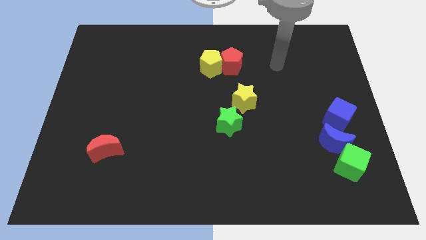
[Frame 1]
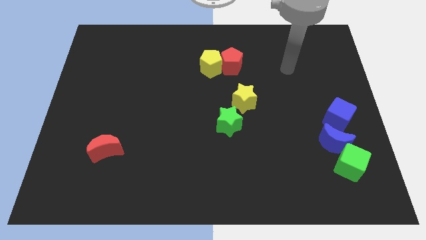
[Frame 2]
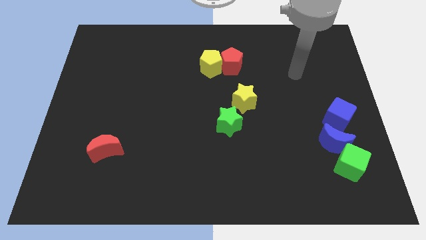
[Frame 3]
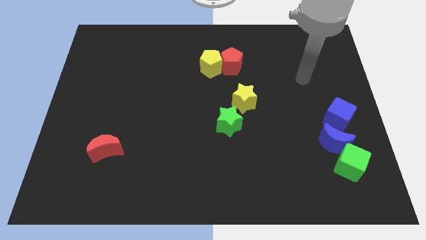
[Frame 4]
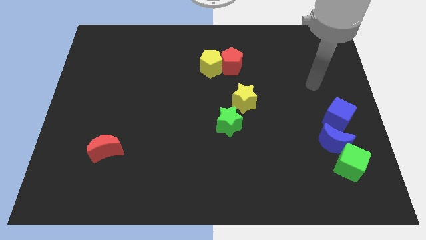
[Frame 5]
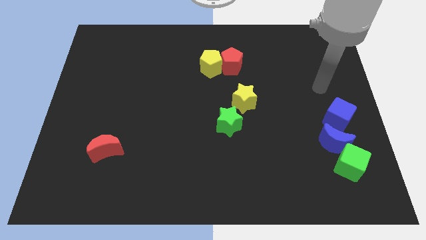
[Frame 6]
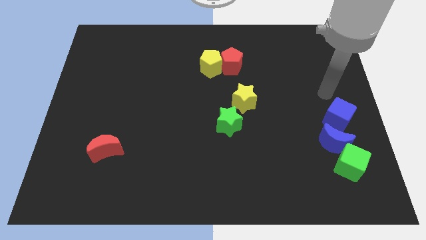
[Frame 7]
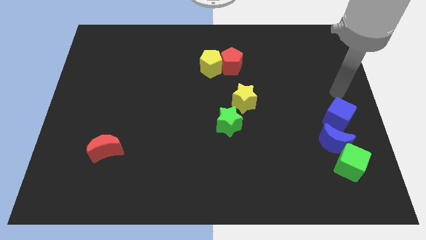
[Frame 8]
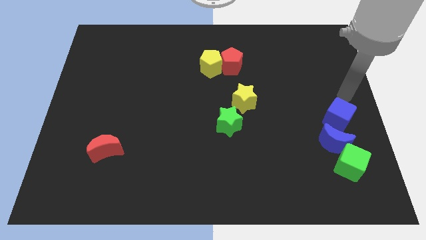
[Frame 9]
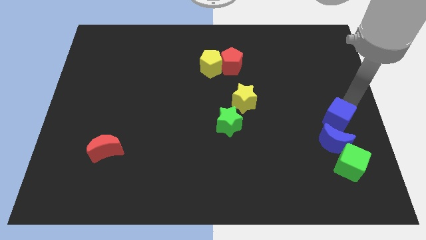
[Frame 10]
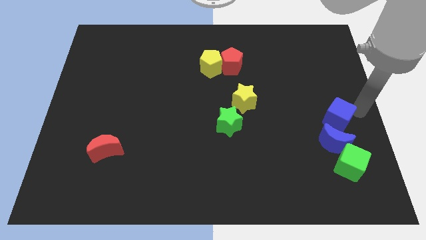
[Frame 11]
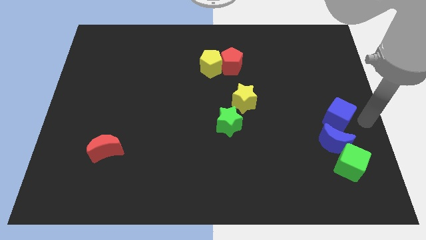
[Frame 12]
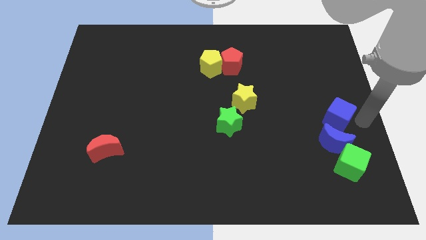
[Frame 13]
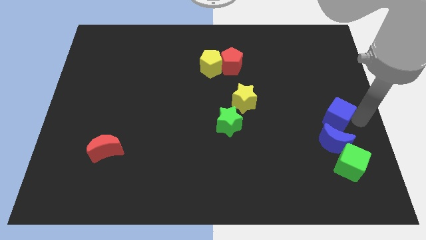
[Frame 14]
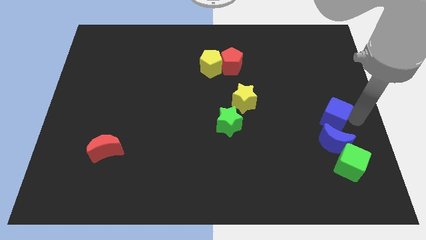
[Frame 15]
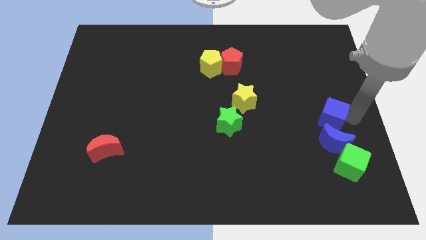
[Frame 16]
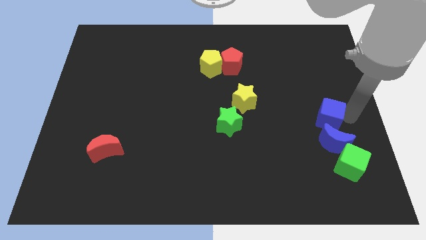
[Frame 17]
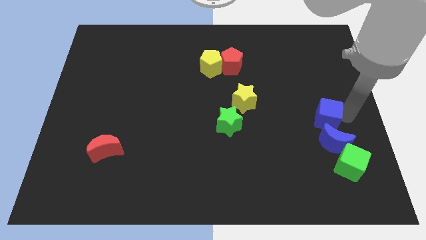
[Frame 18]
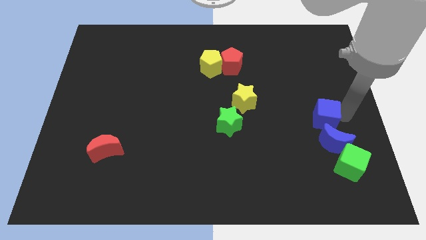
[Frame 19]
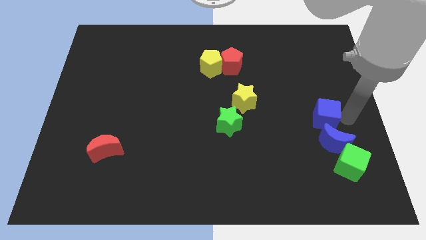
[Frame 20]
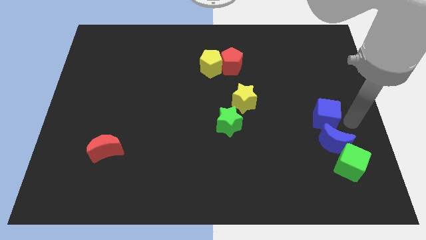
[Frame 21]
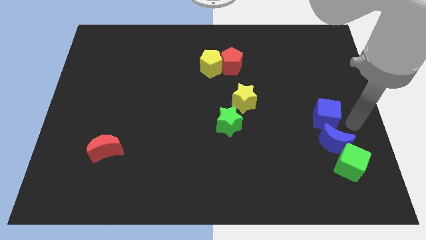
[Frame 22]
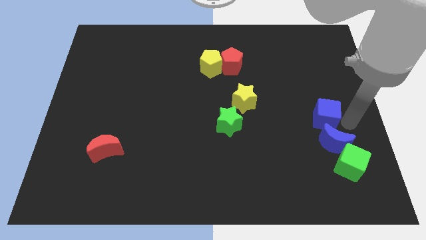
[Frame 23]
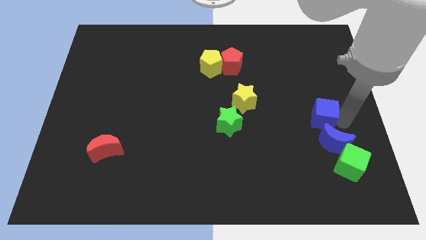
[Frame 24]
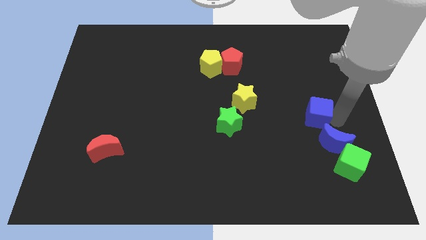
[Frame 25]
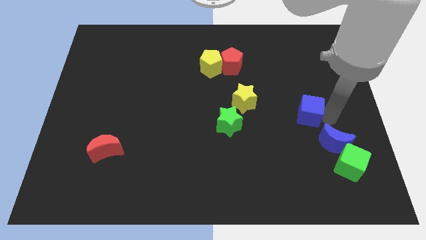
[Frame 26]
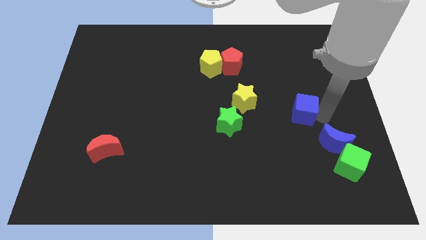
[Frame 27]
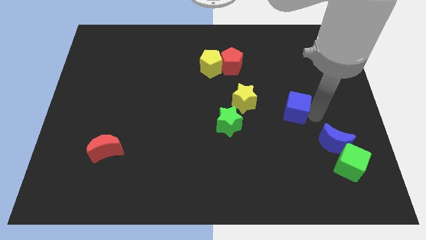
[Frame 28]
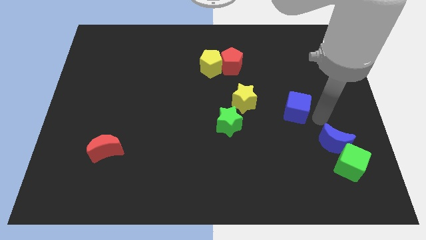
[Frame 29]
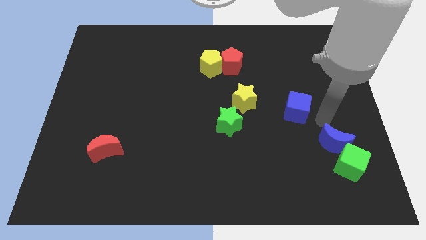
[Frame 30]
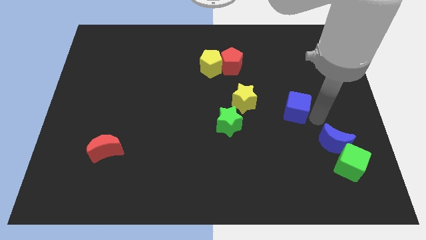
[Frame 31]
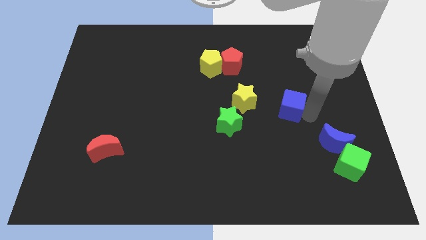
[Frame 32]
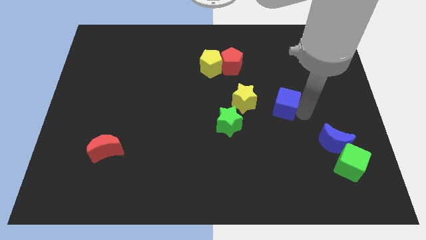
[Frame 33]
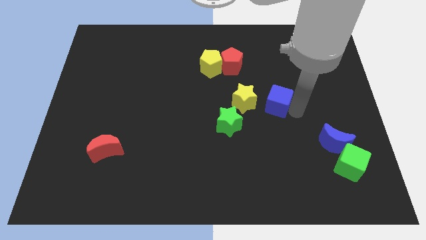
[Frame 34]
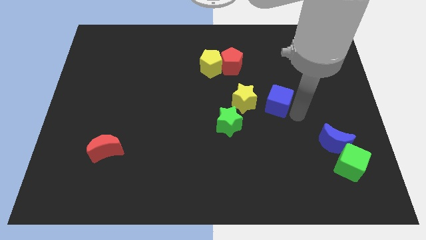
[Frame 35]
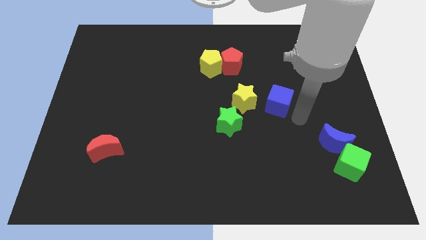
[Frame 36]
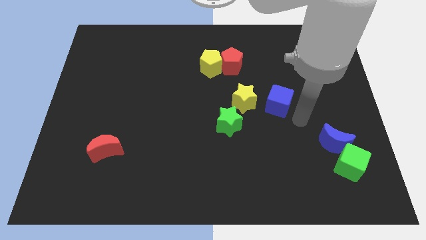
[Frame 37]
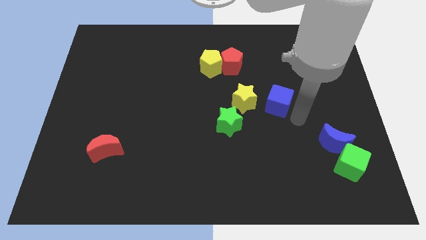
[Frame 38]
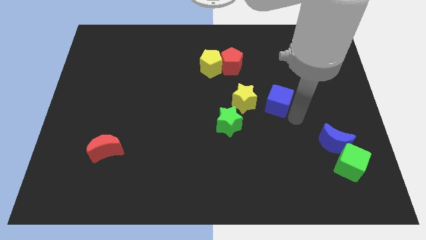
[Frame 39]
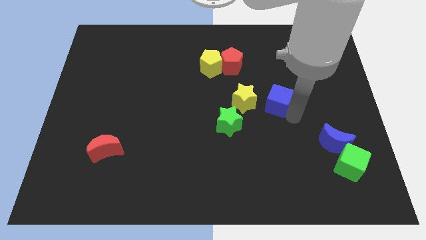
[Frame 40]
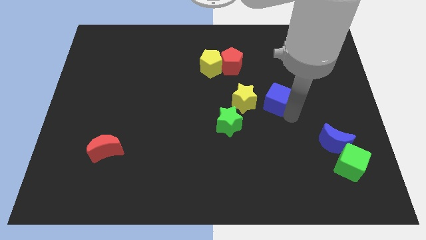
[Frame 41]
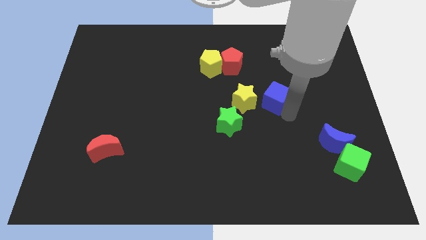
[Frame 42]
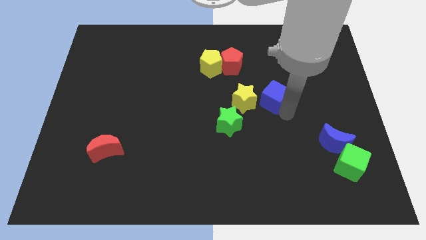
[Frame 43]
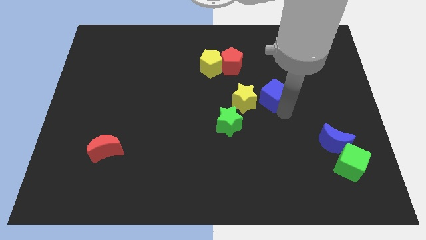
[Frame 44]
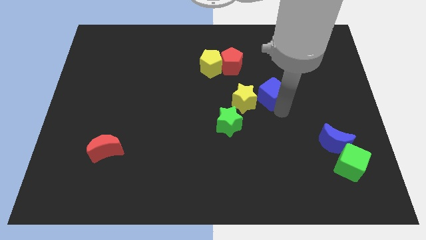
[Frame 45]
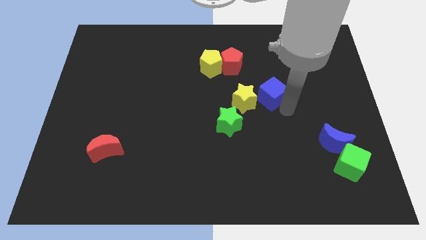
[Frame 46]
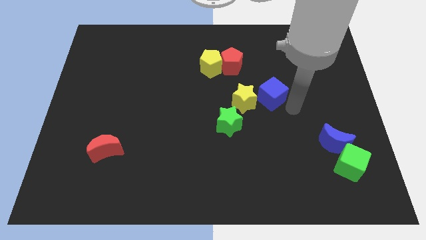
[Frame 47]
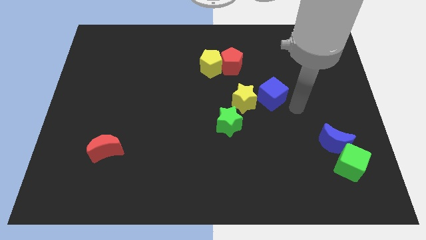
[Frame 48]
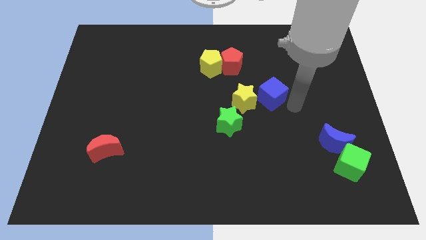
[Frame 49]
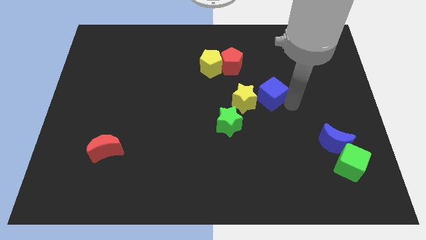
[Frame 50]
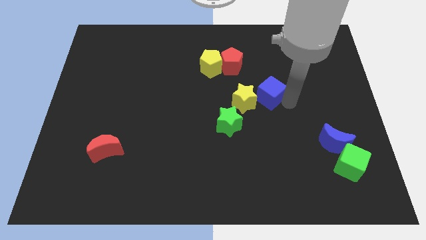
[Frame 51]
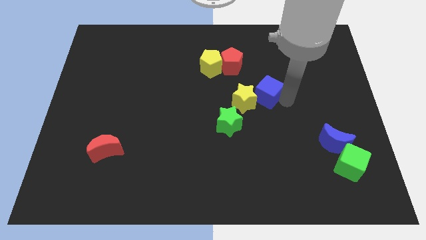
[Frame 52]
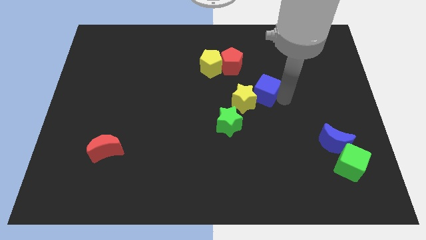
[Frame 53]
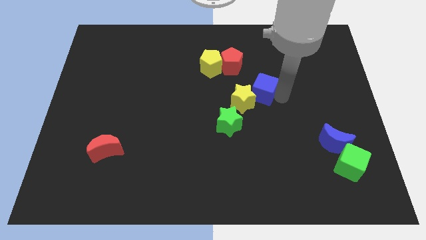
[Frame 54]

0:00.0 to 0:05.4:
move the blue cube to the center

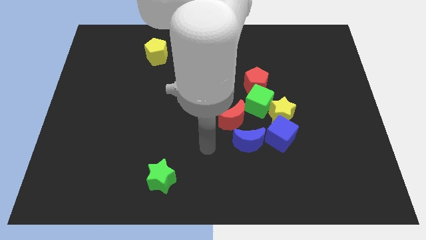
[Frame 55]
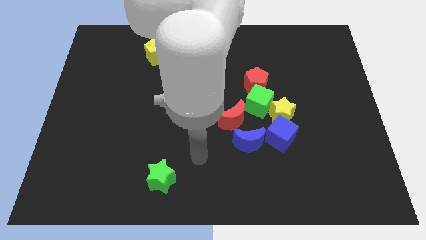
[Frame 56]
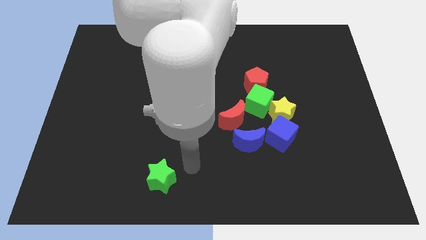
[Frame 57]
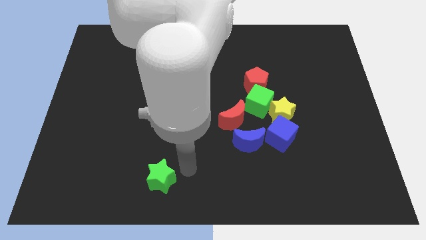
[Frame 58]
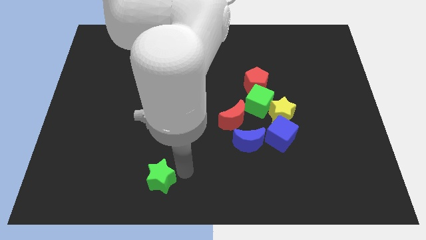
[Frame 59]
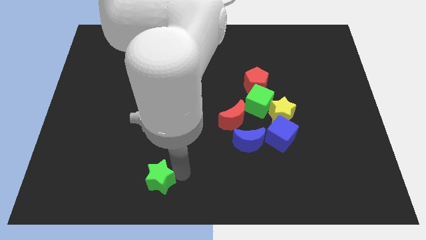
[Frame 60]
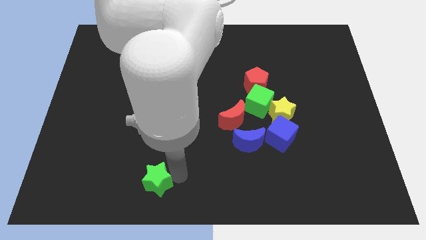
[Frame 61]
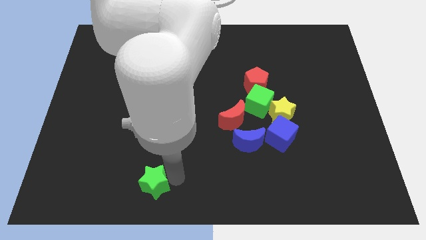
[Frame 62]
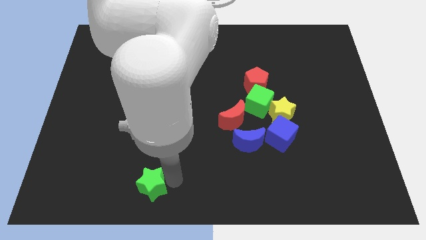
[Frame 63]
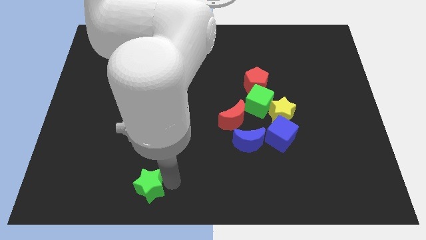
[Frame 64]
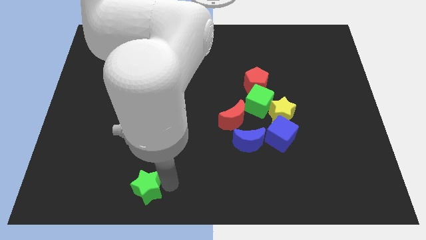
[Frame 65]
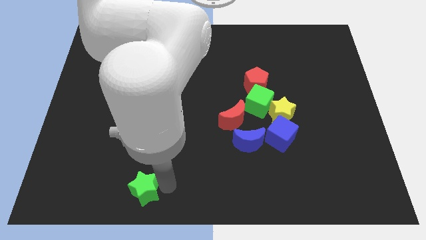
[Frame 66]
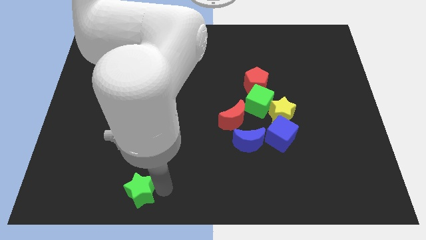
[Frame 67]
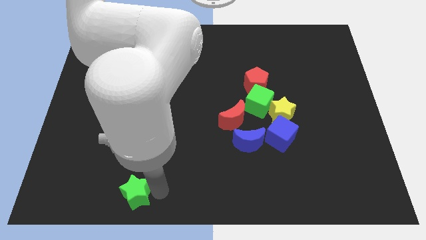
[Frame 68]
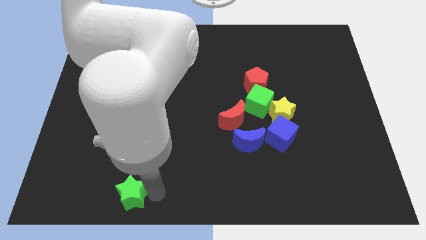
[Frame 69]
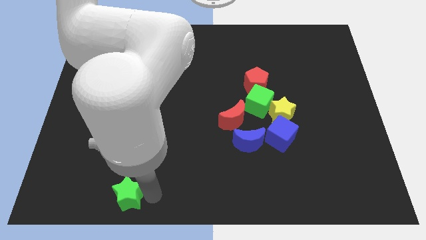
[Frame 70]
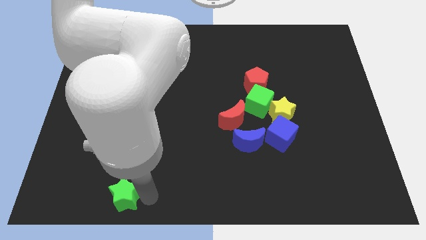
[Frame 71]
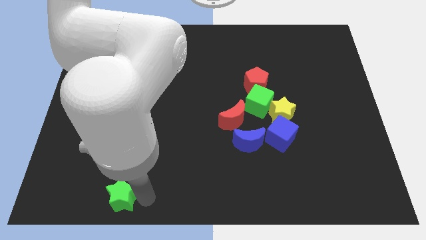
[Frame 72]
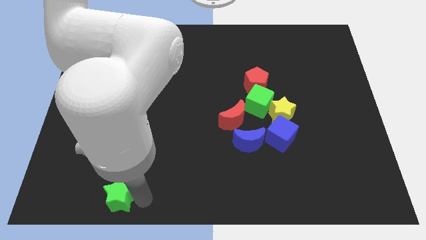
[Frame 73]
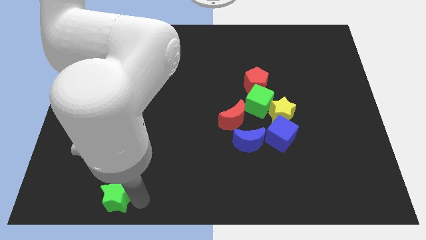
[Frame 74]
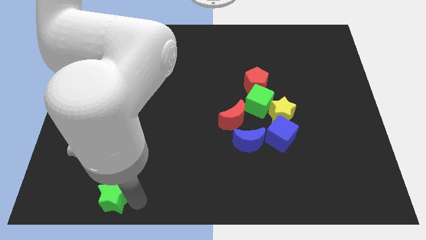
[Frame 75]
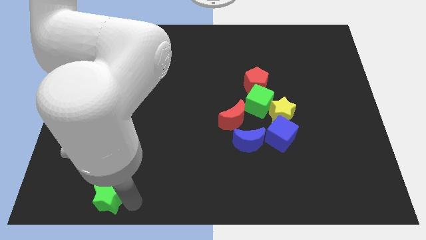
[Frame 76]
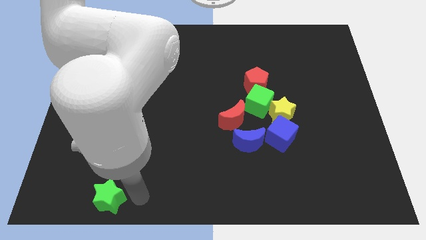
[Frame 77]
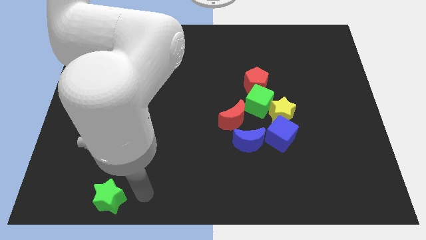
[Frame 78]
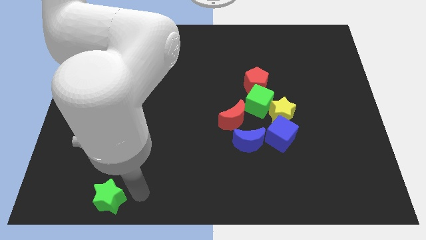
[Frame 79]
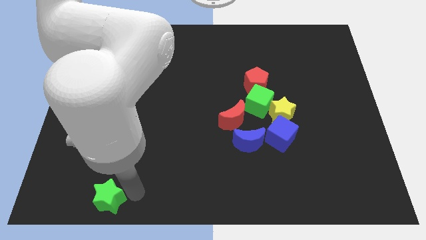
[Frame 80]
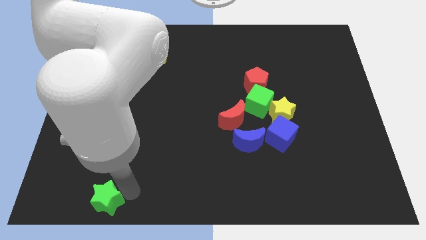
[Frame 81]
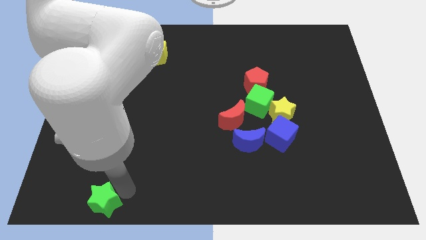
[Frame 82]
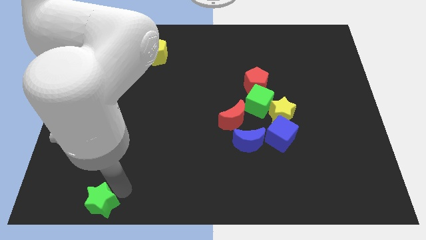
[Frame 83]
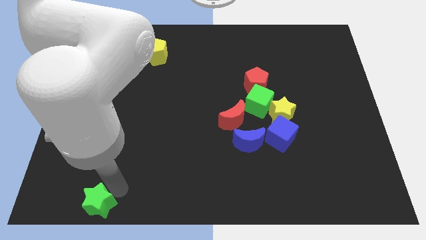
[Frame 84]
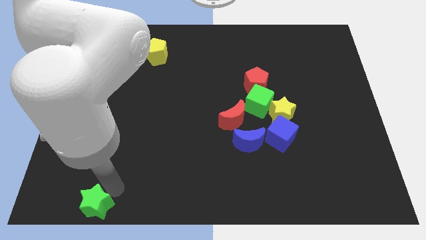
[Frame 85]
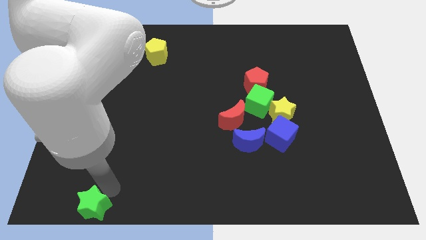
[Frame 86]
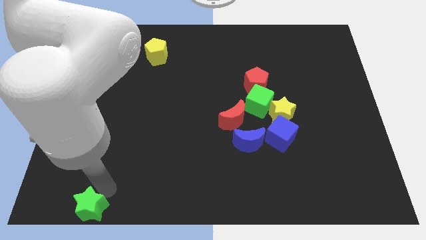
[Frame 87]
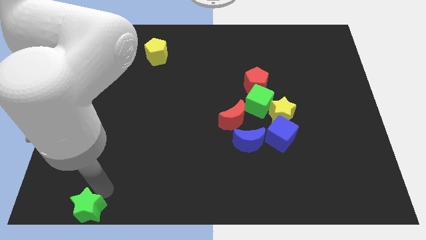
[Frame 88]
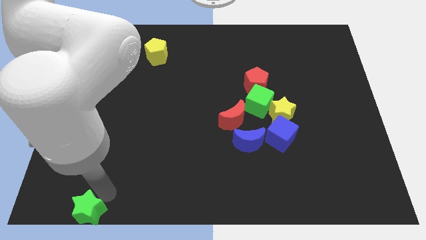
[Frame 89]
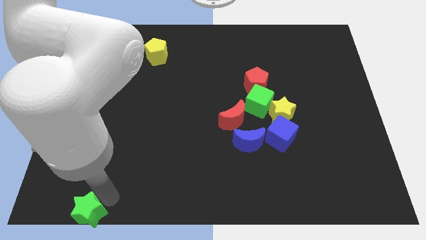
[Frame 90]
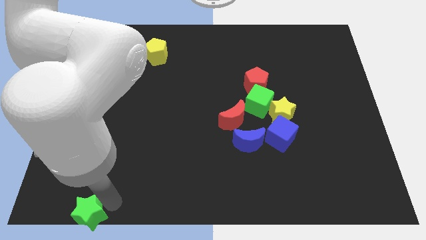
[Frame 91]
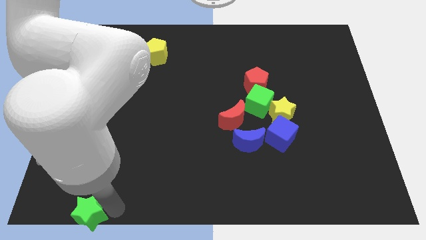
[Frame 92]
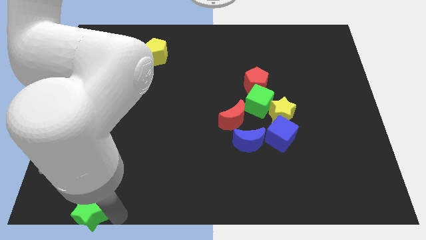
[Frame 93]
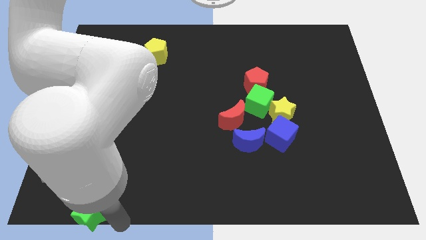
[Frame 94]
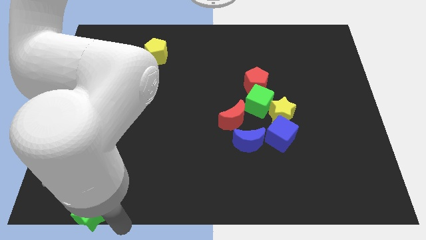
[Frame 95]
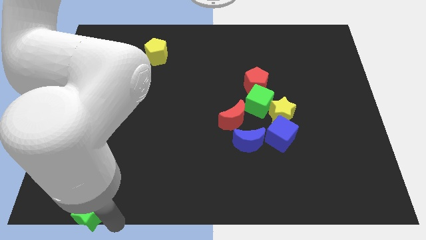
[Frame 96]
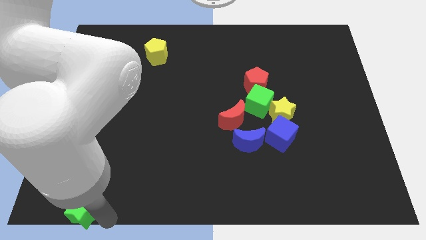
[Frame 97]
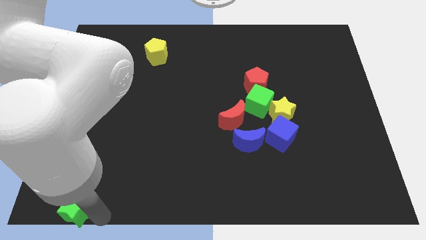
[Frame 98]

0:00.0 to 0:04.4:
push the green star to the lower left corner
